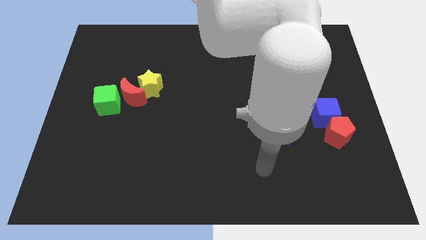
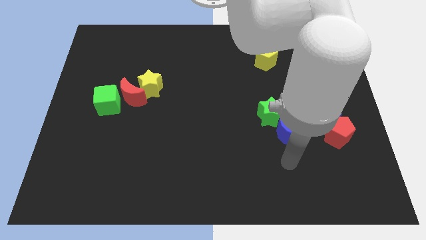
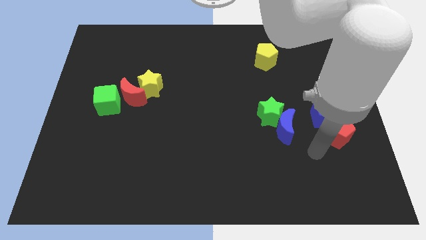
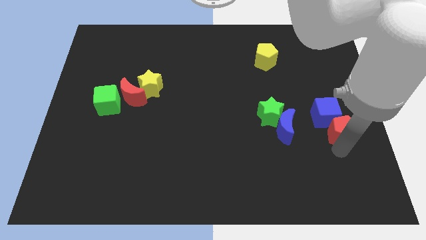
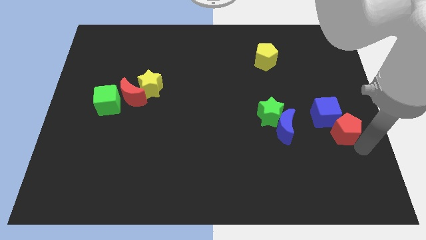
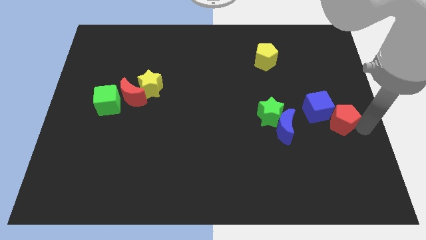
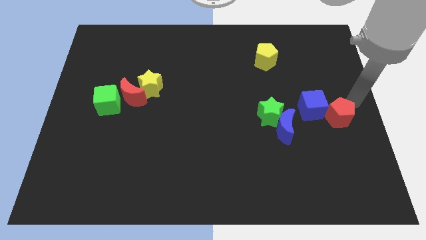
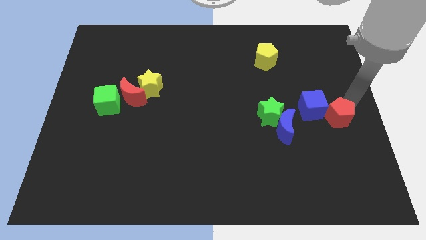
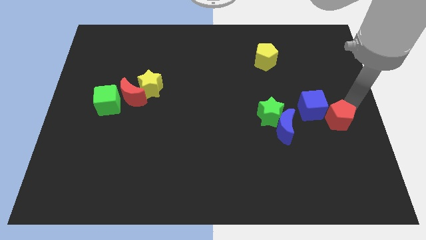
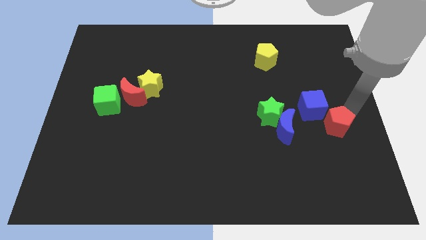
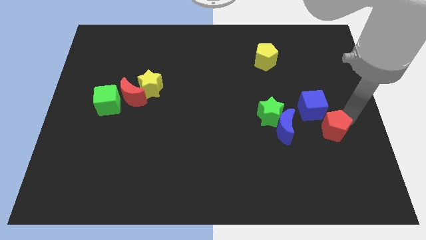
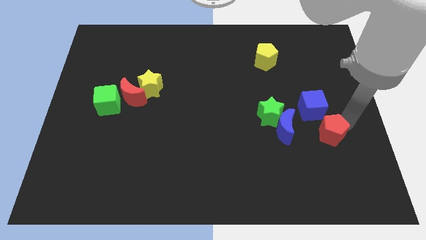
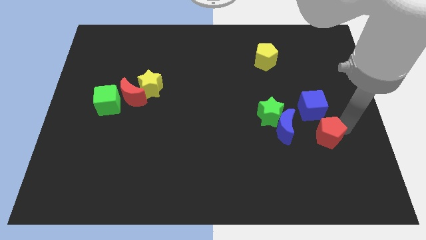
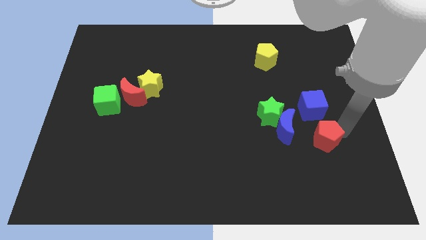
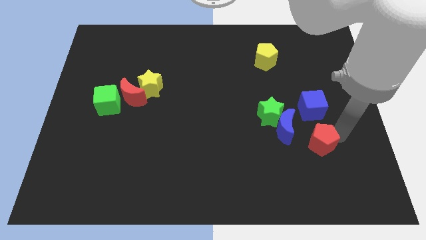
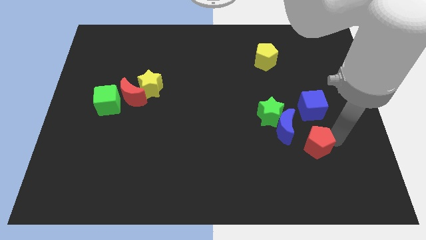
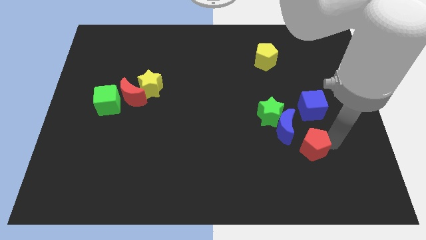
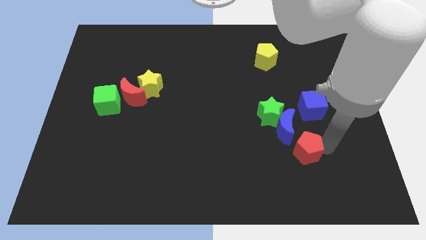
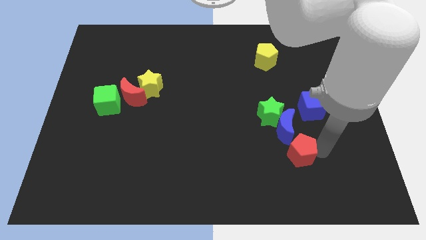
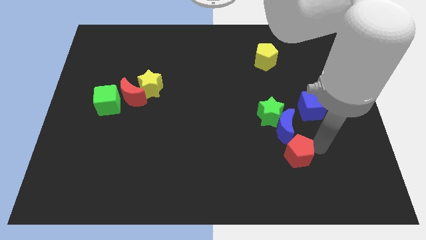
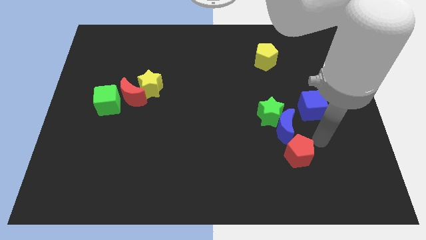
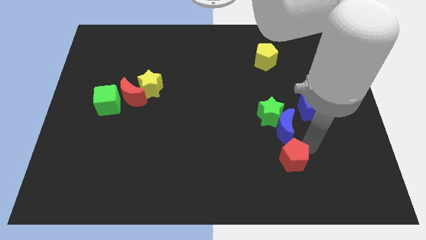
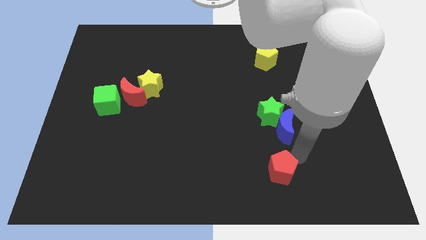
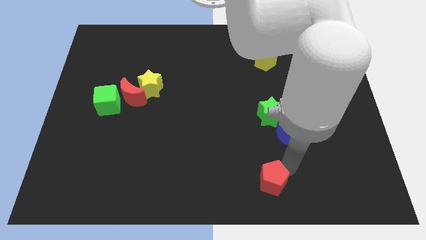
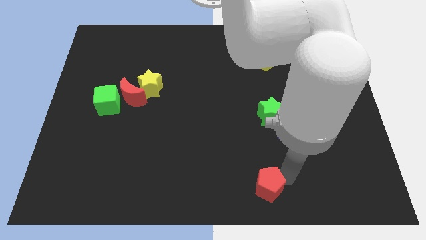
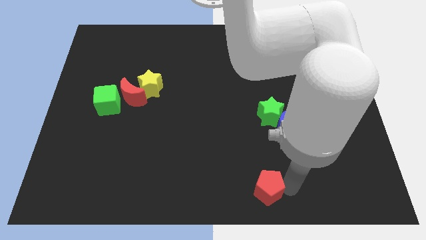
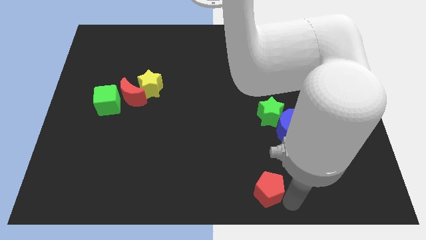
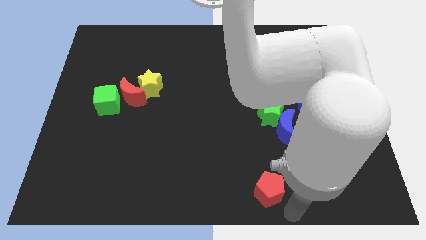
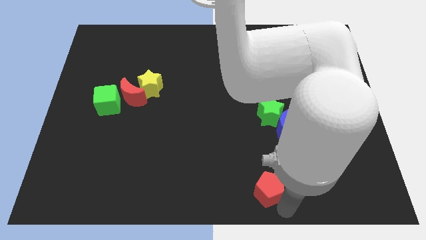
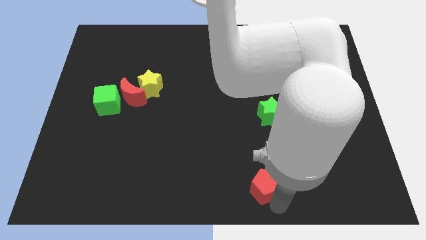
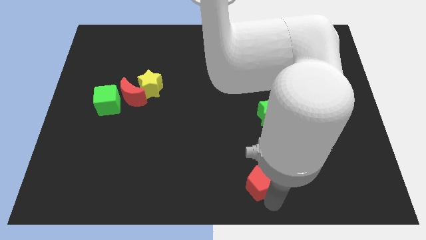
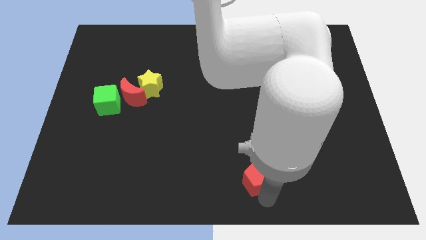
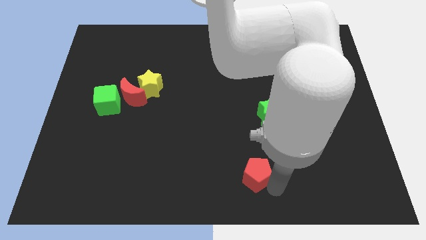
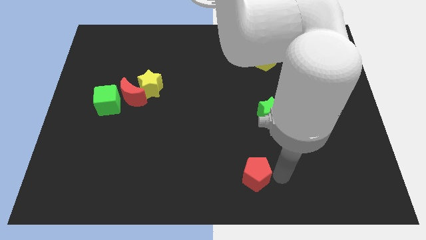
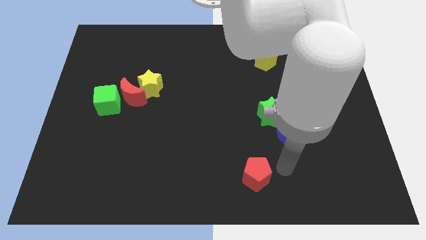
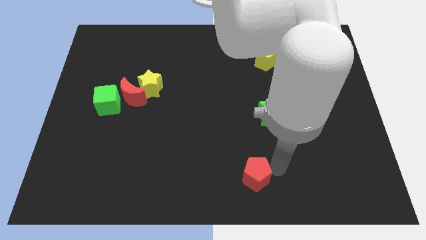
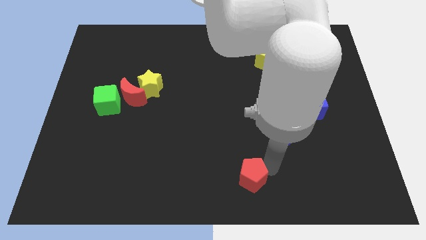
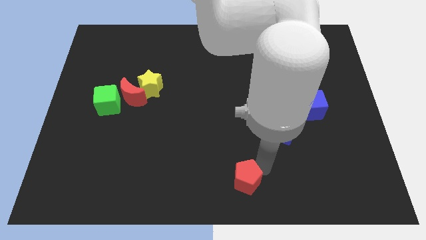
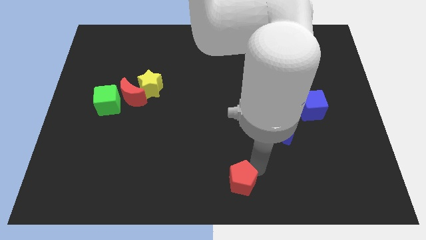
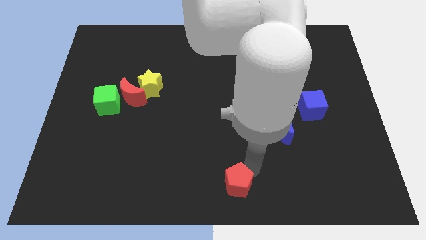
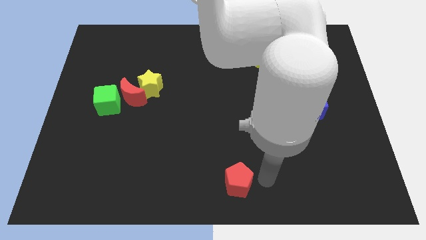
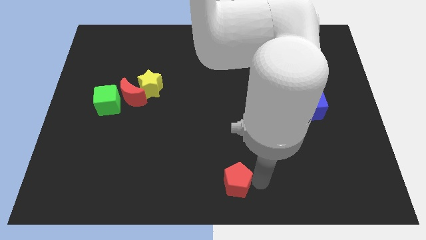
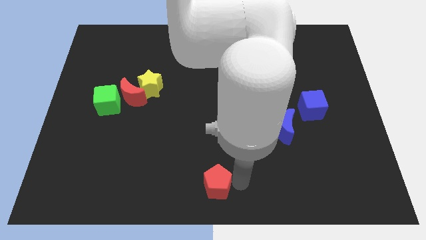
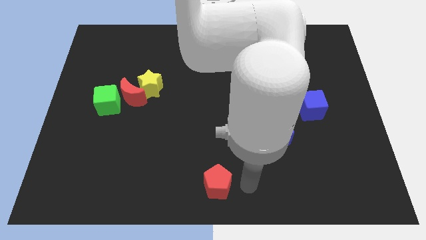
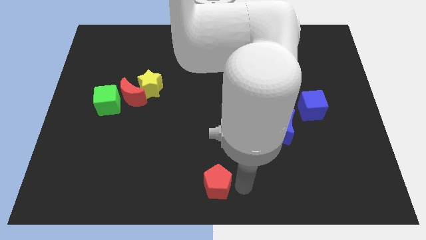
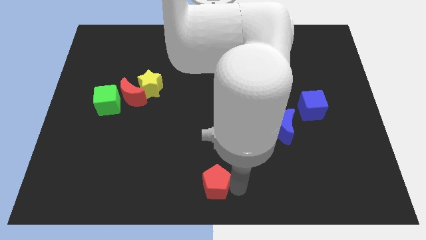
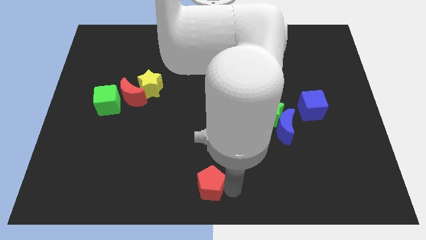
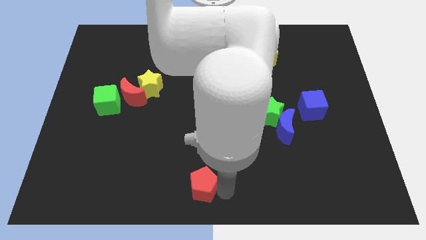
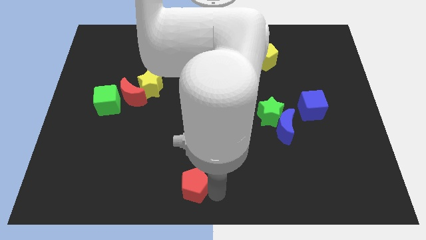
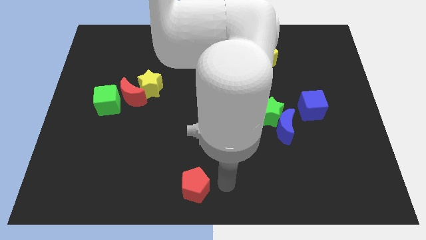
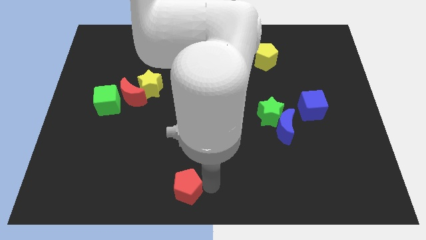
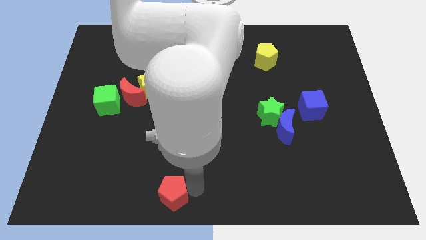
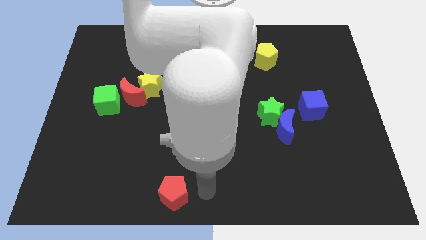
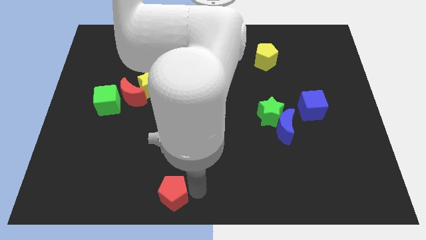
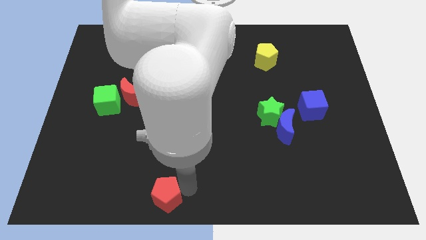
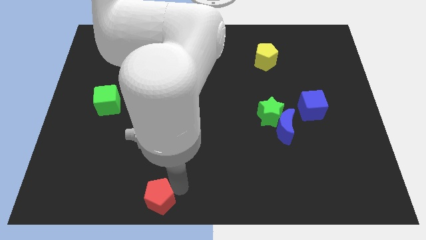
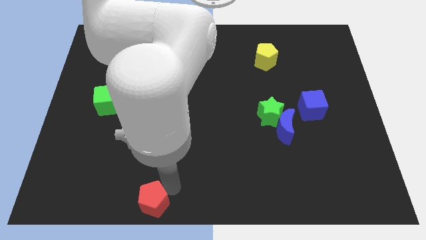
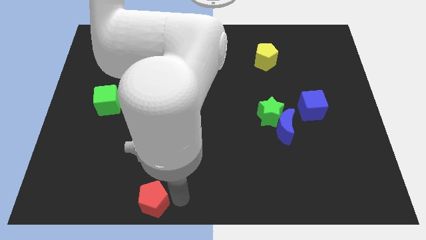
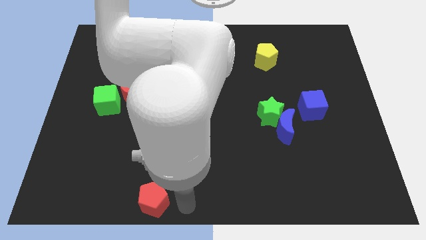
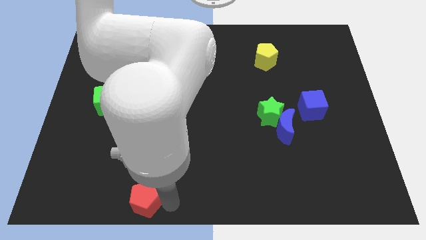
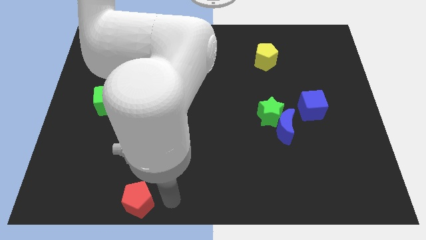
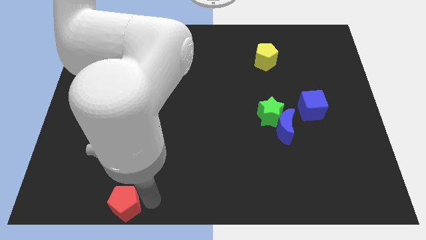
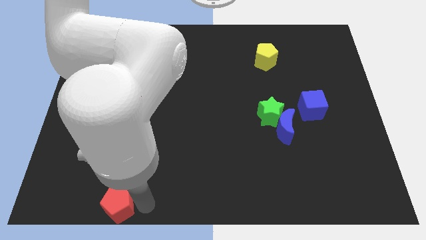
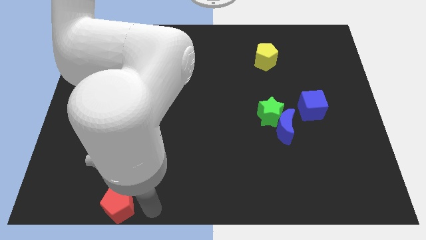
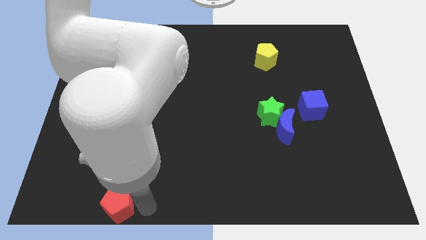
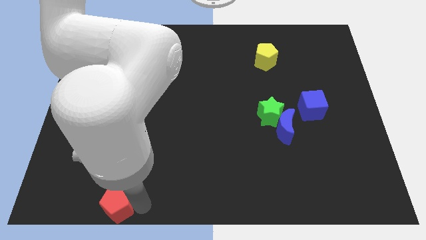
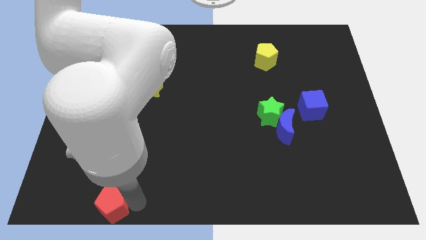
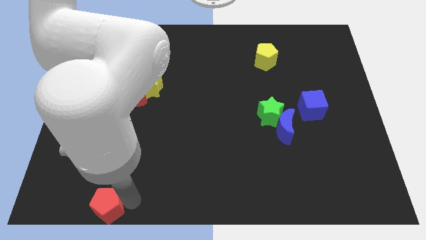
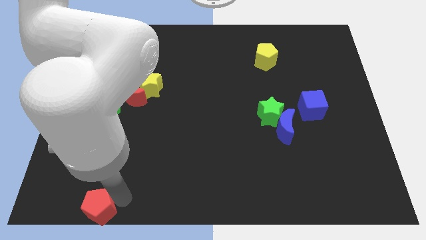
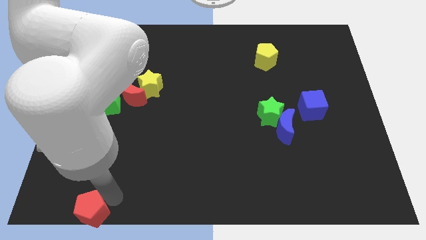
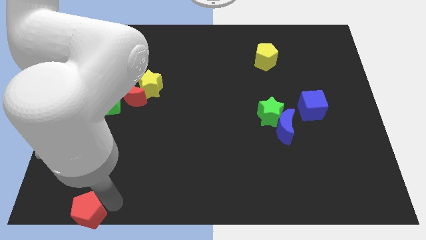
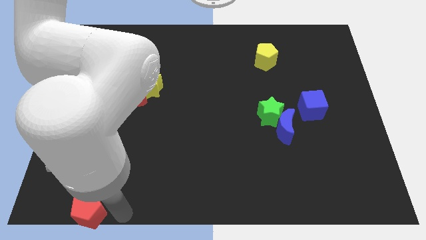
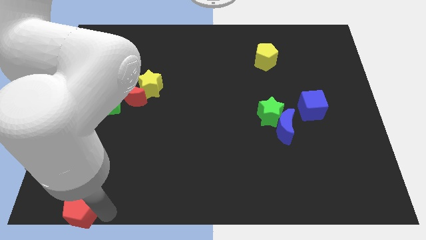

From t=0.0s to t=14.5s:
slide the red pentagon to the bottom left
